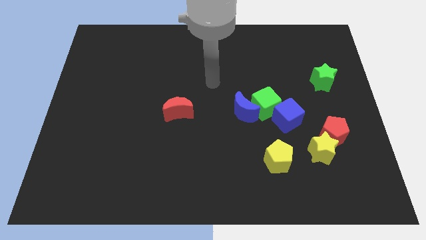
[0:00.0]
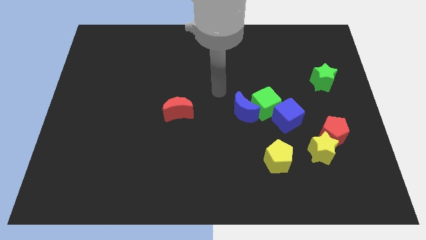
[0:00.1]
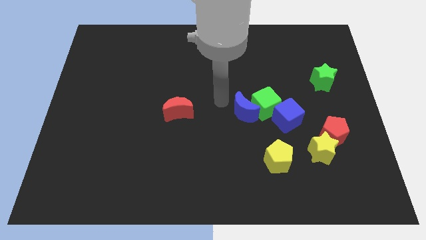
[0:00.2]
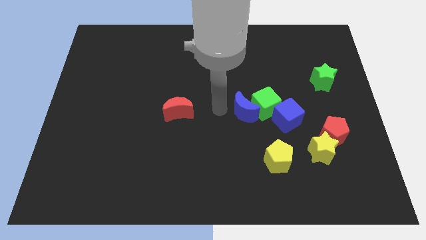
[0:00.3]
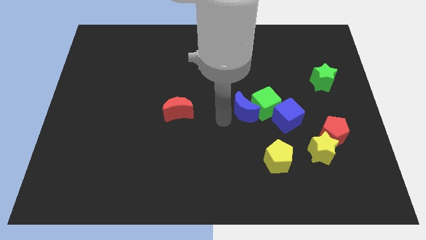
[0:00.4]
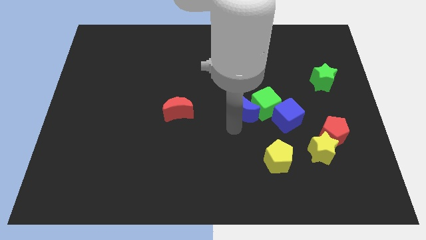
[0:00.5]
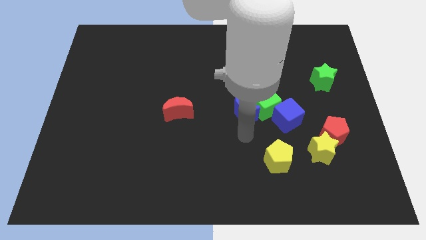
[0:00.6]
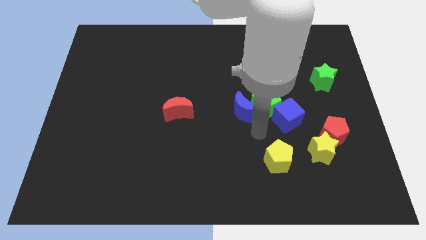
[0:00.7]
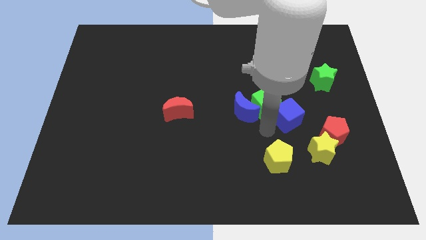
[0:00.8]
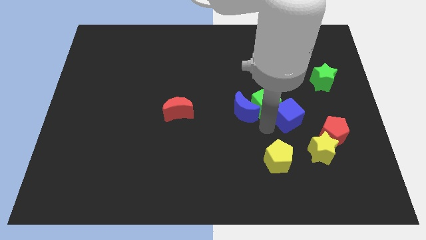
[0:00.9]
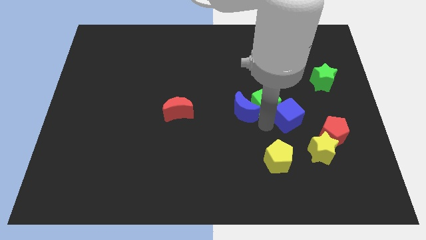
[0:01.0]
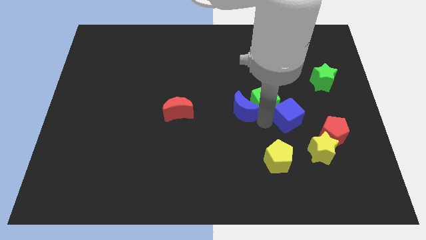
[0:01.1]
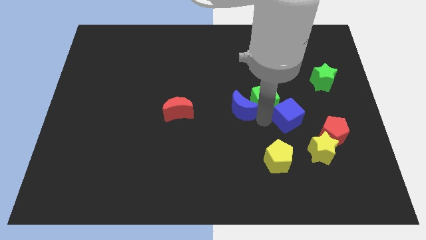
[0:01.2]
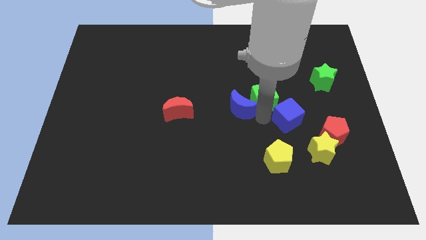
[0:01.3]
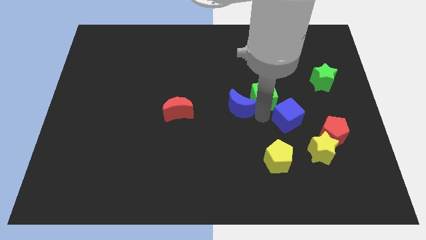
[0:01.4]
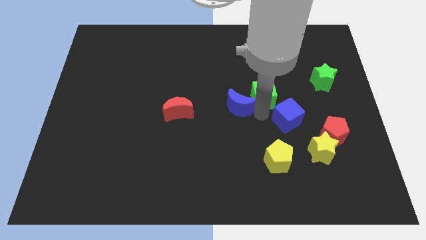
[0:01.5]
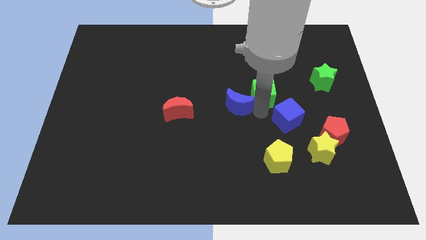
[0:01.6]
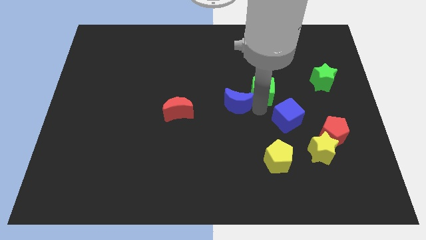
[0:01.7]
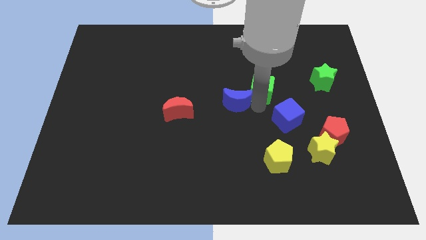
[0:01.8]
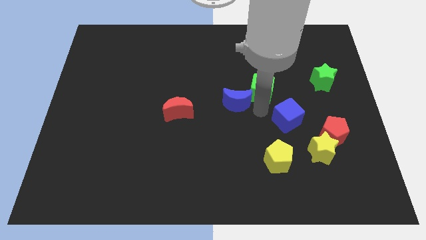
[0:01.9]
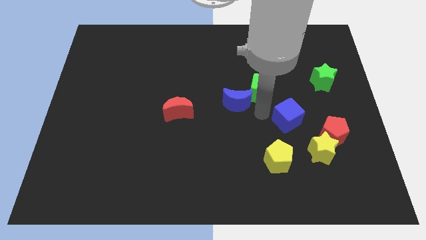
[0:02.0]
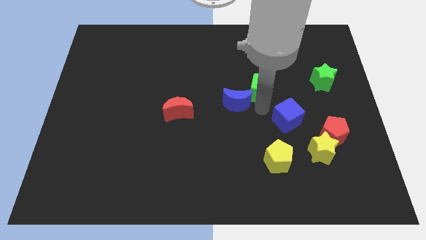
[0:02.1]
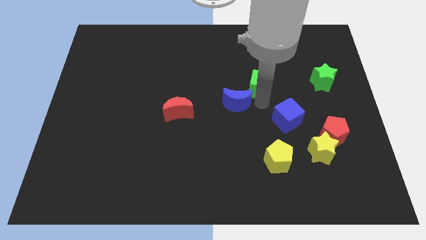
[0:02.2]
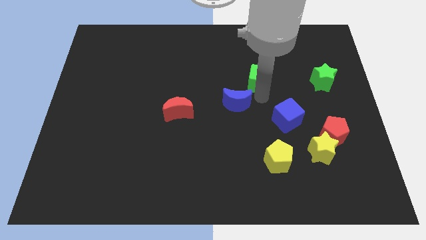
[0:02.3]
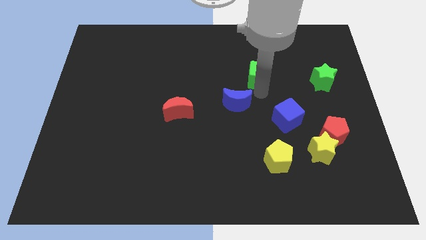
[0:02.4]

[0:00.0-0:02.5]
pull the green cube apart from the blue moon and blue cube

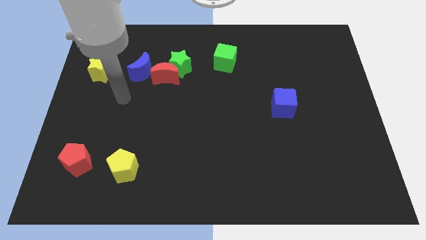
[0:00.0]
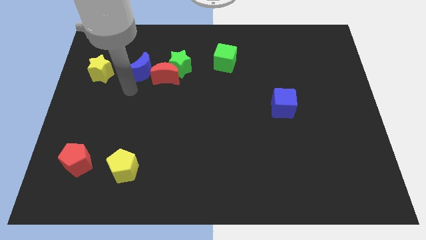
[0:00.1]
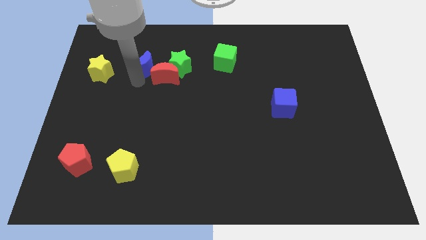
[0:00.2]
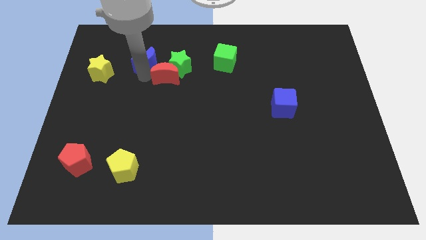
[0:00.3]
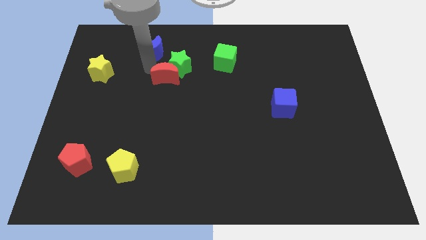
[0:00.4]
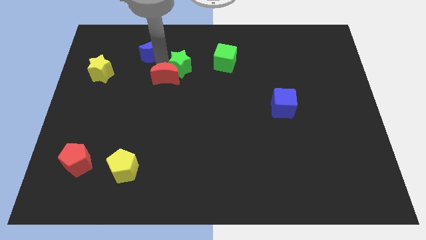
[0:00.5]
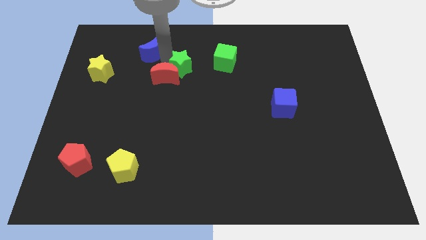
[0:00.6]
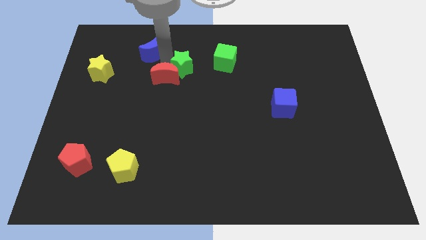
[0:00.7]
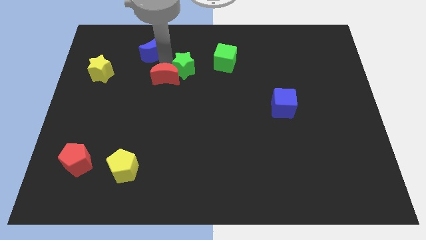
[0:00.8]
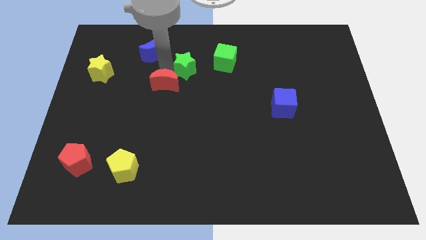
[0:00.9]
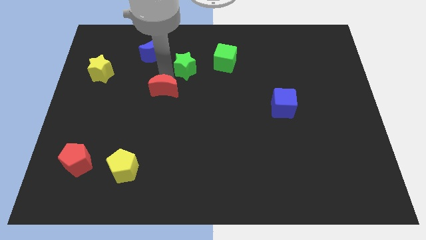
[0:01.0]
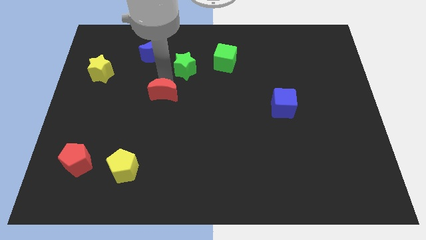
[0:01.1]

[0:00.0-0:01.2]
pull the red moon apart from the green star and blue moon

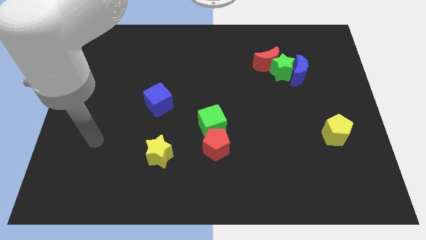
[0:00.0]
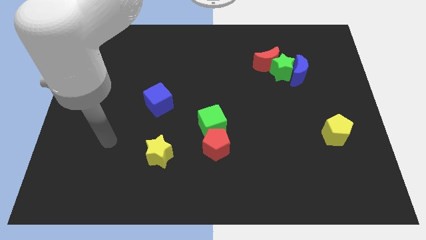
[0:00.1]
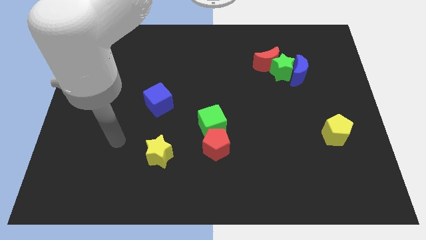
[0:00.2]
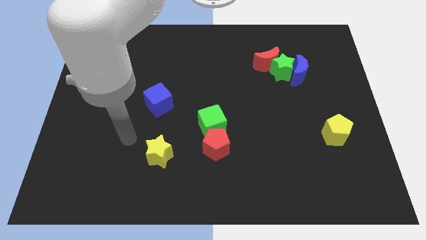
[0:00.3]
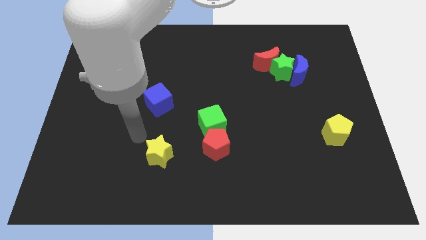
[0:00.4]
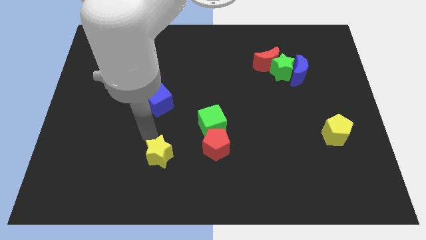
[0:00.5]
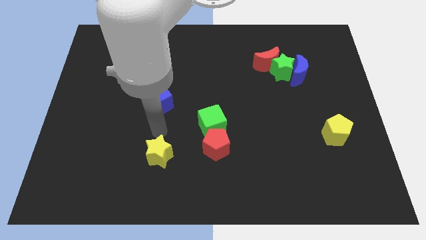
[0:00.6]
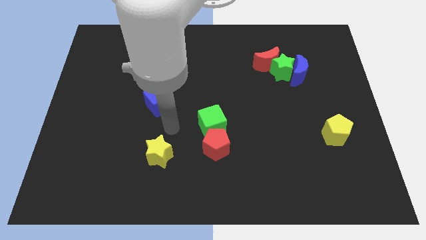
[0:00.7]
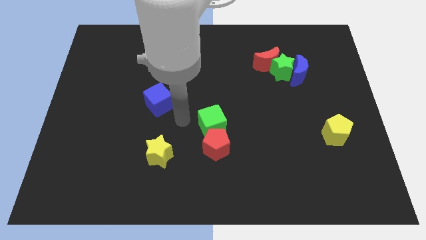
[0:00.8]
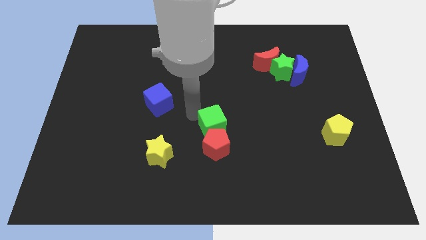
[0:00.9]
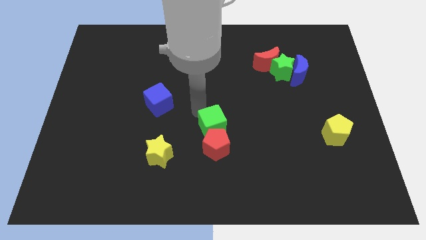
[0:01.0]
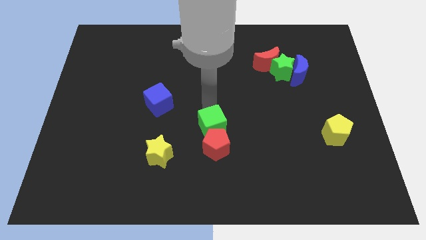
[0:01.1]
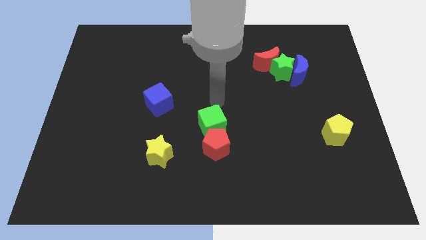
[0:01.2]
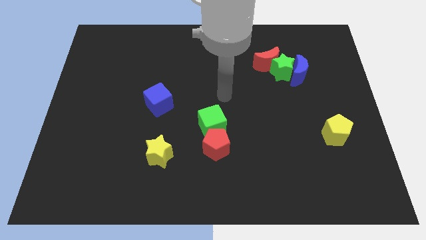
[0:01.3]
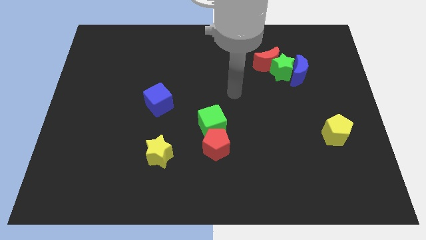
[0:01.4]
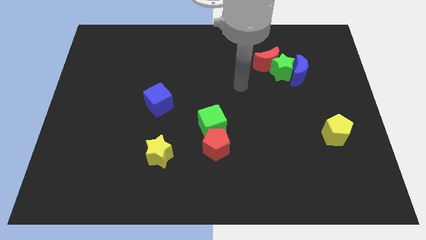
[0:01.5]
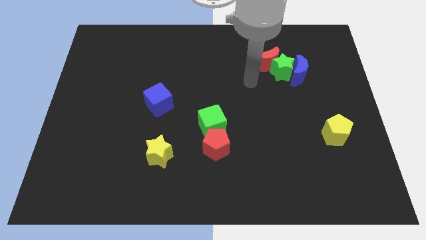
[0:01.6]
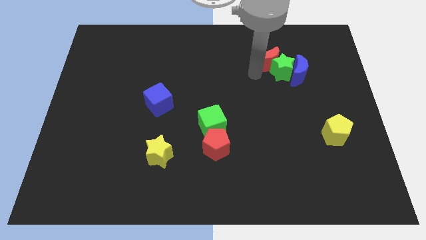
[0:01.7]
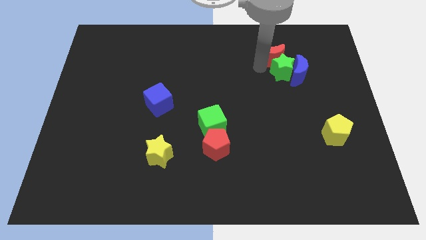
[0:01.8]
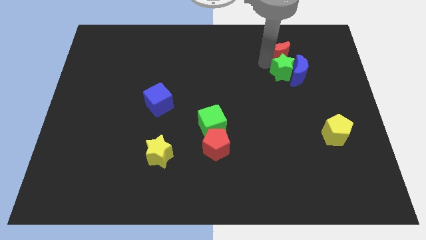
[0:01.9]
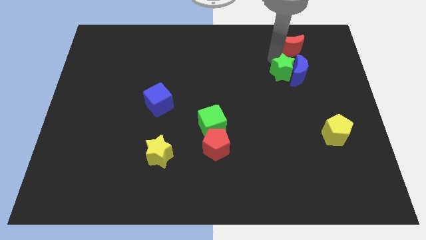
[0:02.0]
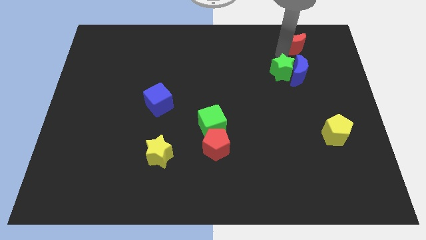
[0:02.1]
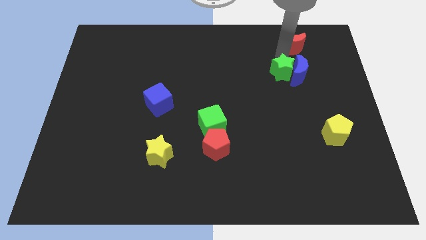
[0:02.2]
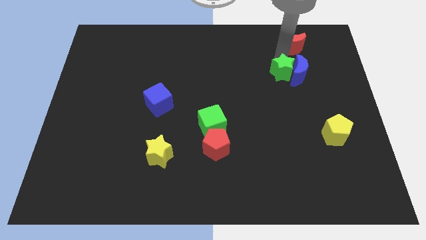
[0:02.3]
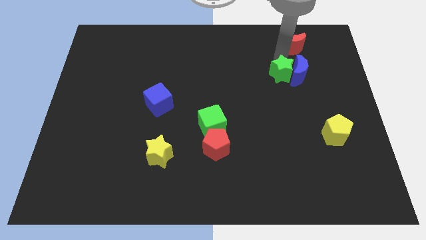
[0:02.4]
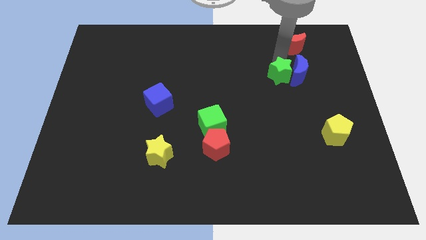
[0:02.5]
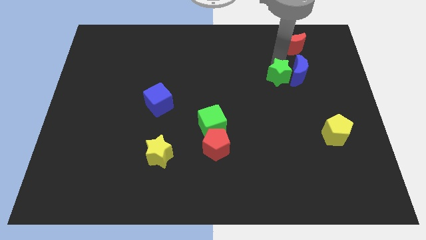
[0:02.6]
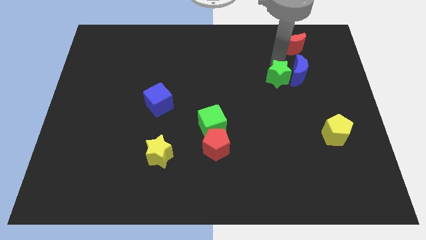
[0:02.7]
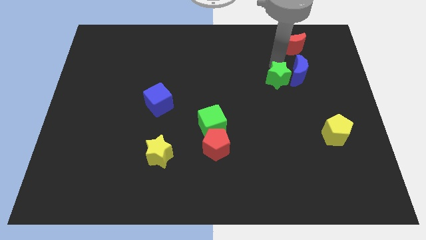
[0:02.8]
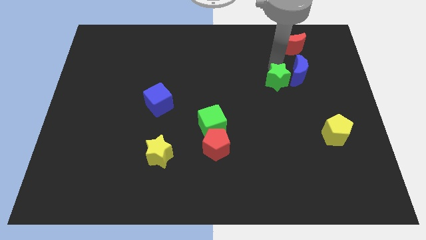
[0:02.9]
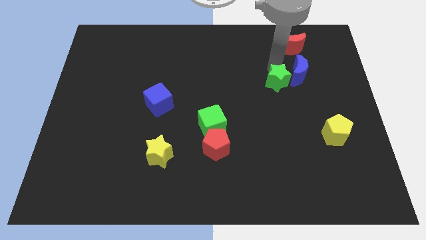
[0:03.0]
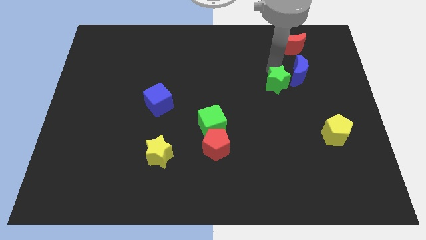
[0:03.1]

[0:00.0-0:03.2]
pull the green star apart from the blue moon and red moon

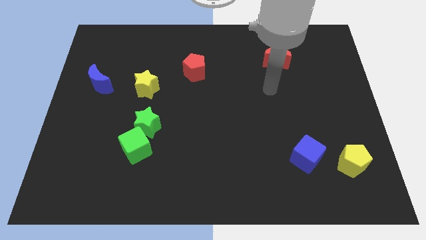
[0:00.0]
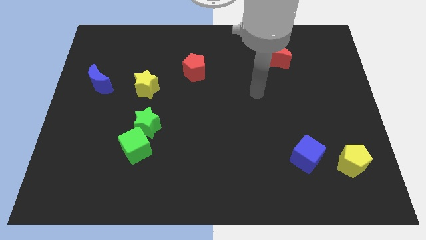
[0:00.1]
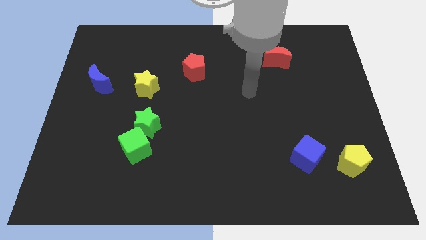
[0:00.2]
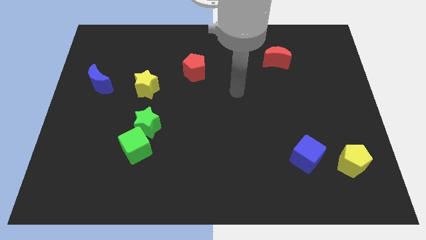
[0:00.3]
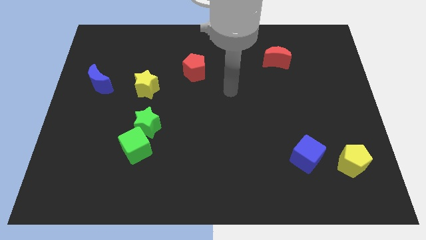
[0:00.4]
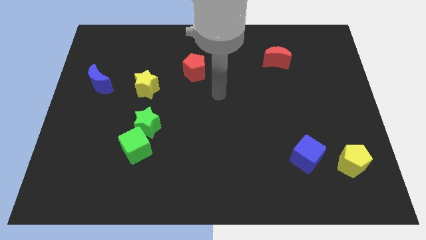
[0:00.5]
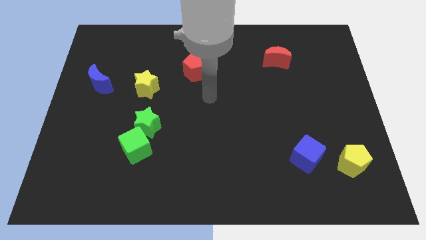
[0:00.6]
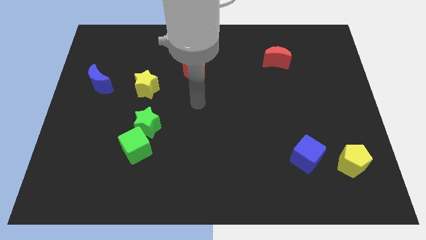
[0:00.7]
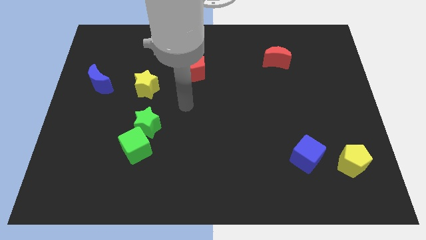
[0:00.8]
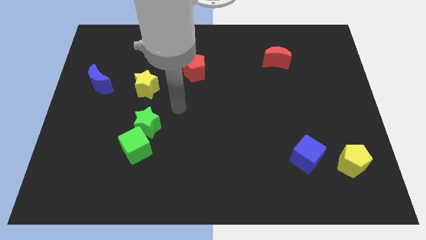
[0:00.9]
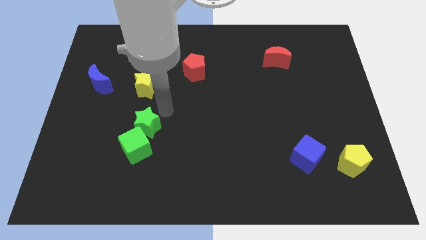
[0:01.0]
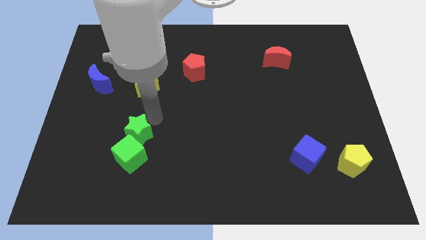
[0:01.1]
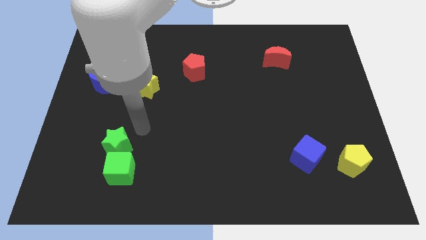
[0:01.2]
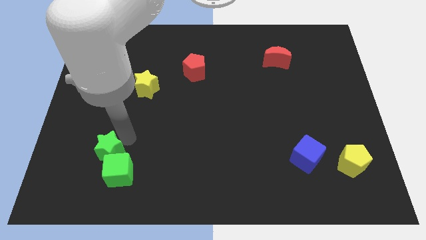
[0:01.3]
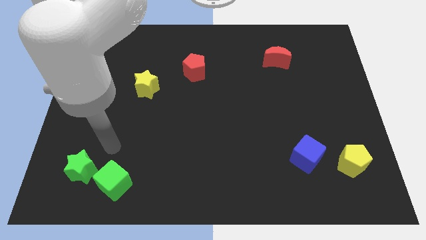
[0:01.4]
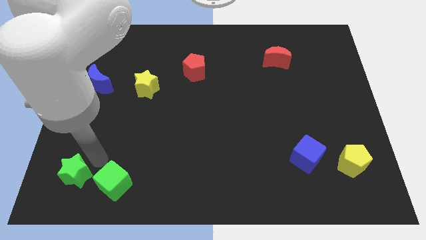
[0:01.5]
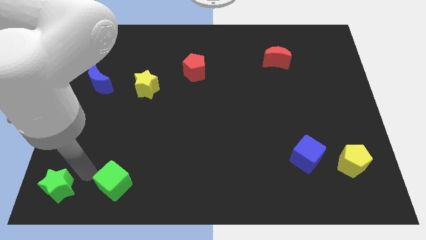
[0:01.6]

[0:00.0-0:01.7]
move the green cube away from the green star

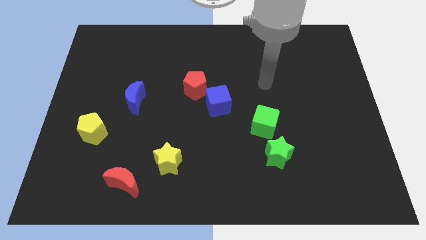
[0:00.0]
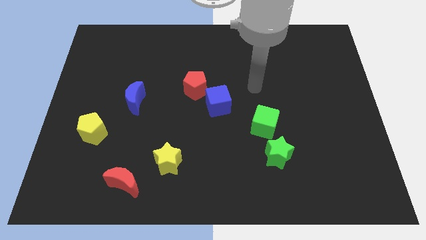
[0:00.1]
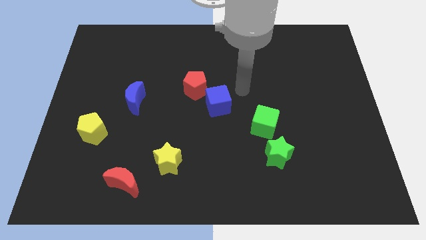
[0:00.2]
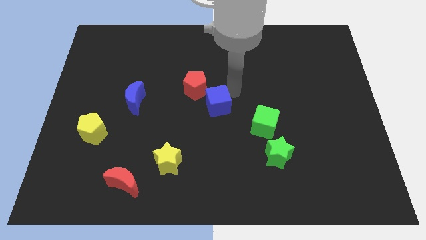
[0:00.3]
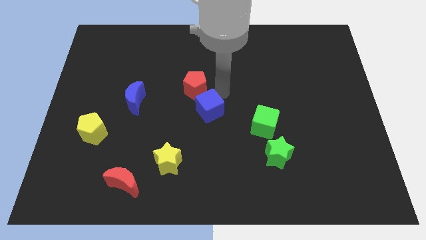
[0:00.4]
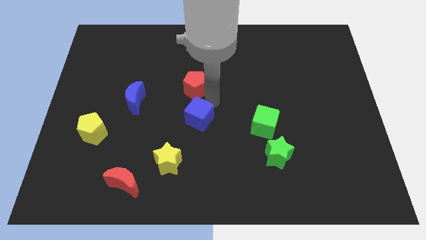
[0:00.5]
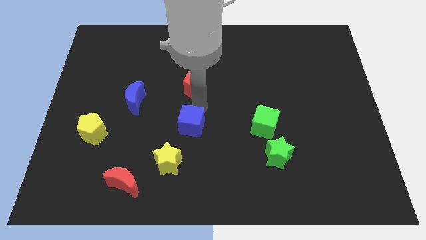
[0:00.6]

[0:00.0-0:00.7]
separate the red pentagon from the blue cube
